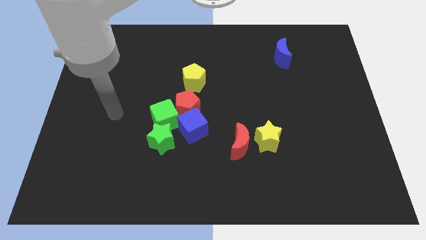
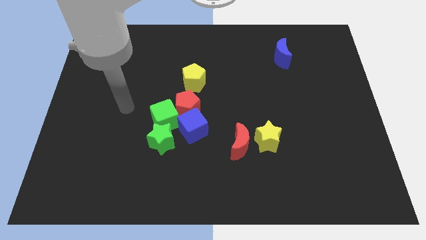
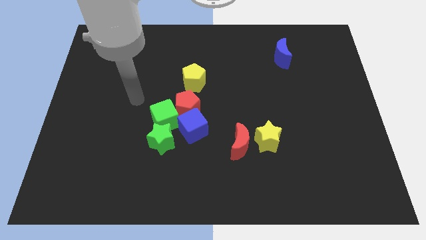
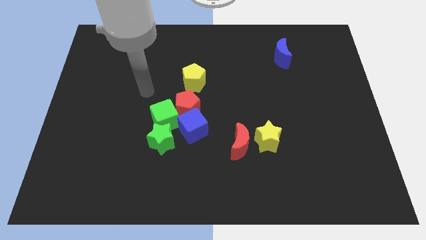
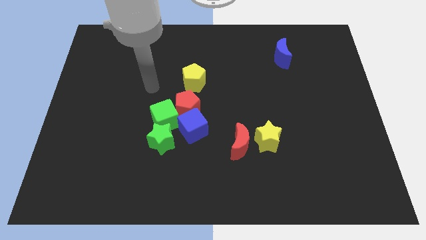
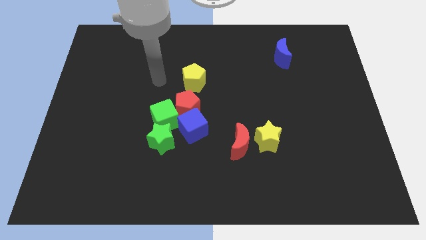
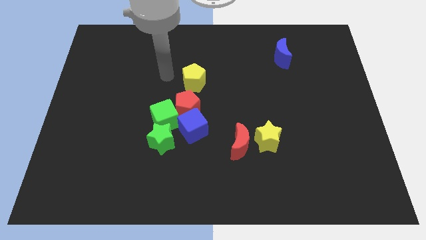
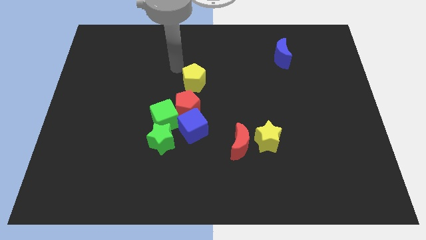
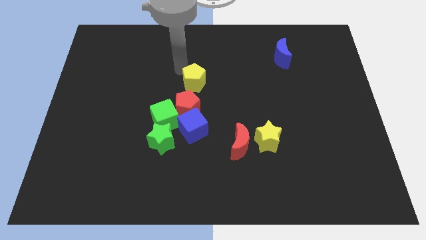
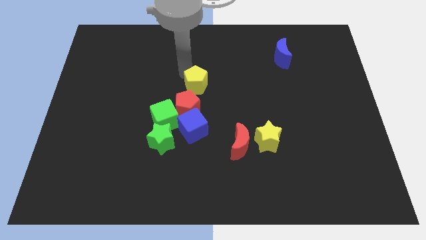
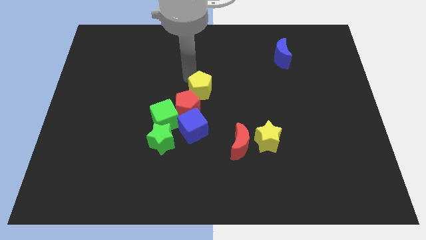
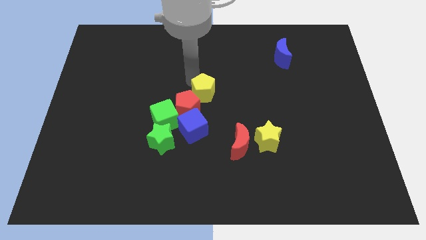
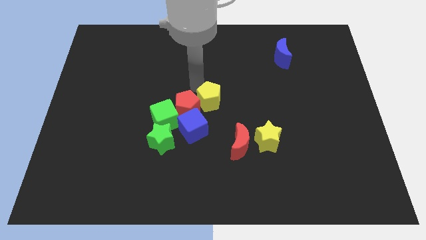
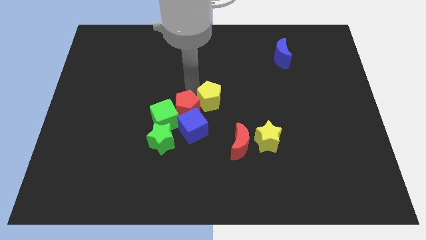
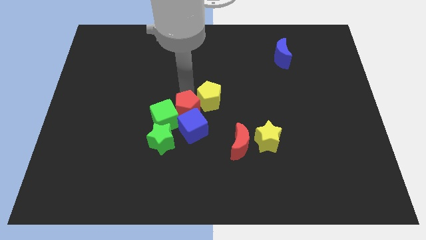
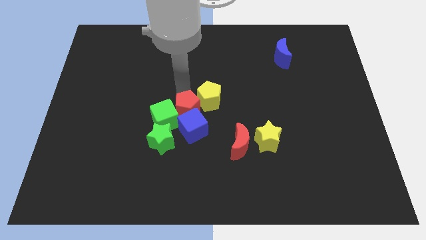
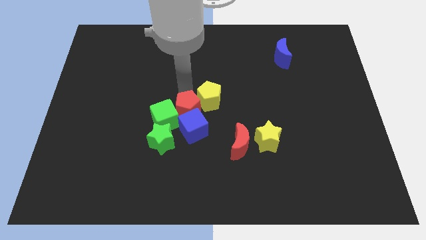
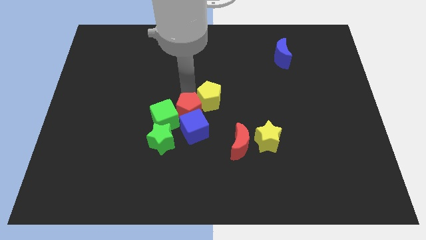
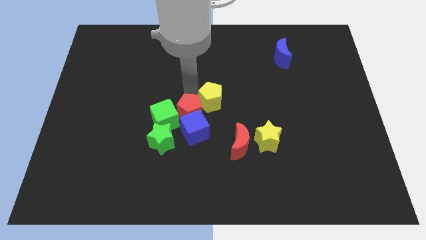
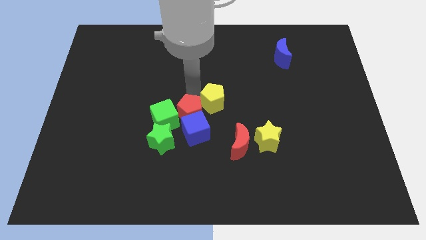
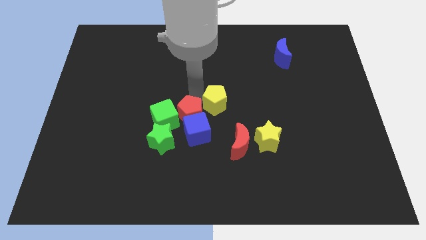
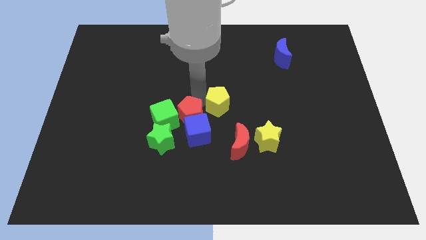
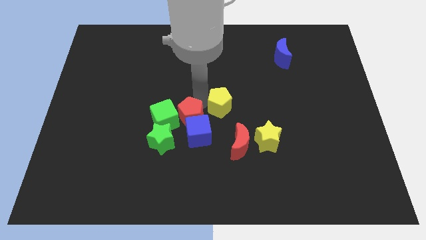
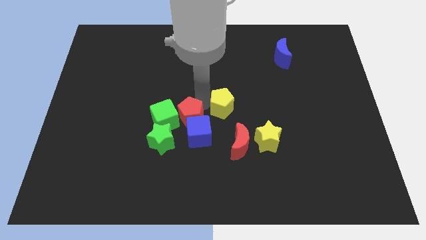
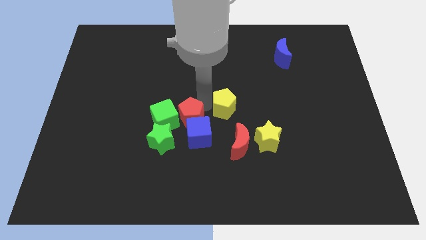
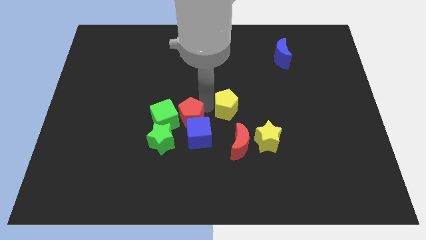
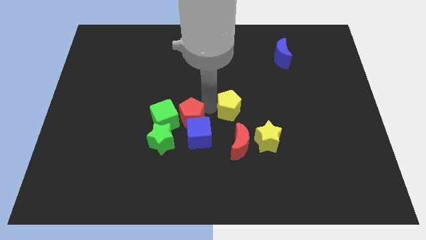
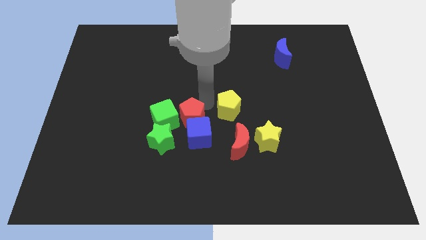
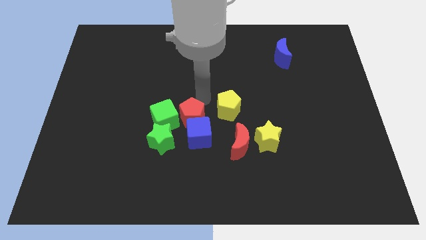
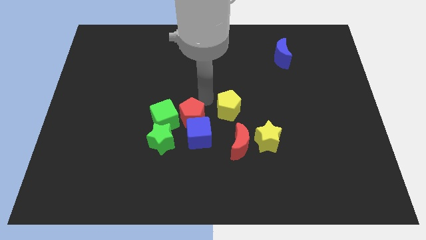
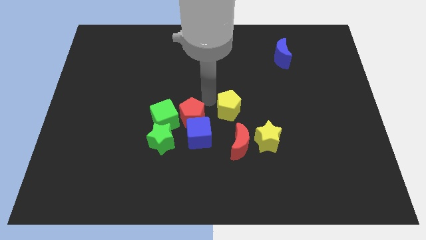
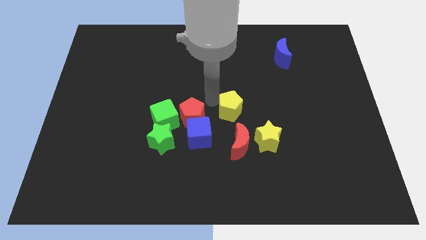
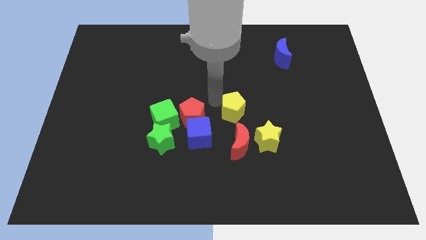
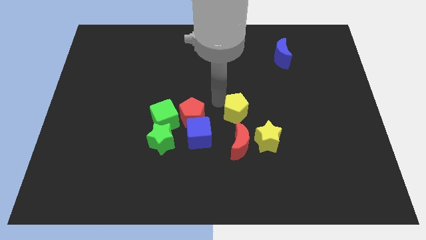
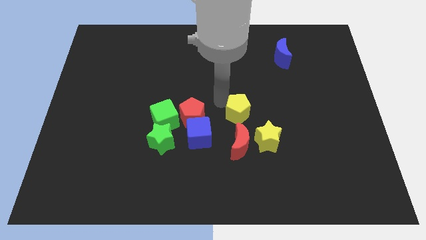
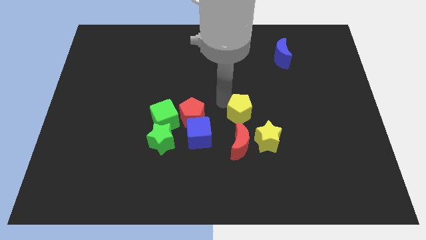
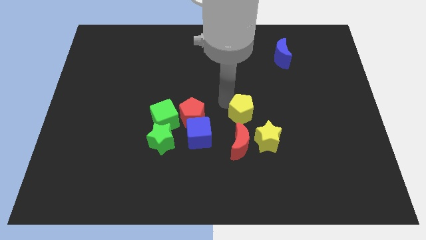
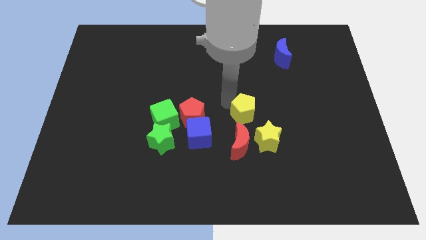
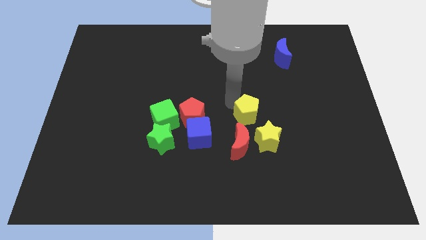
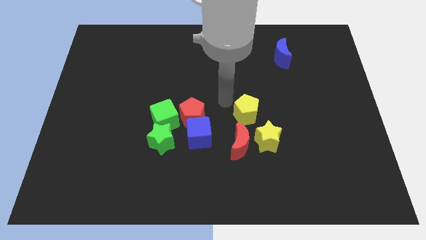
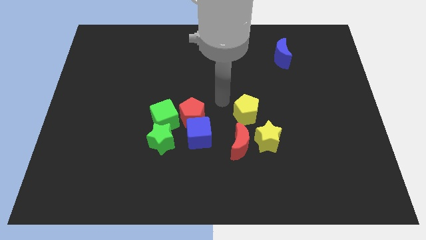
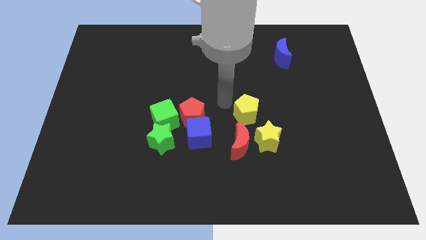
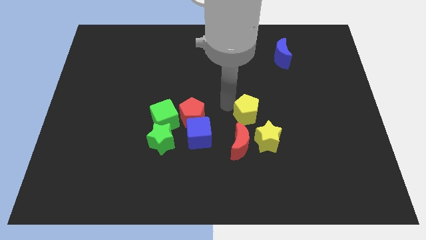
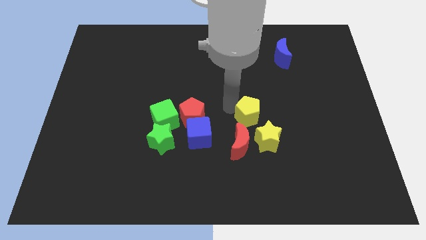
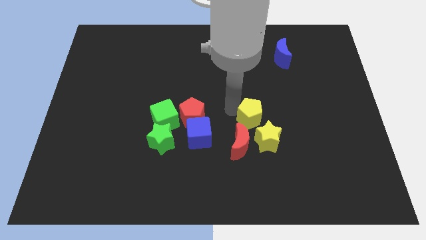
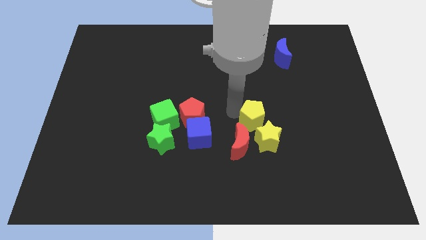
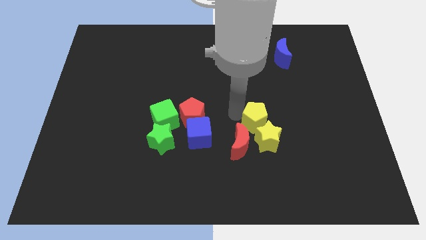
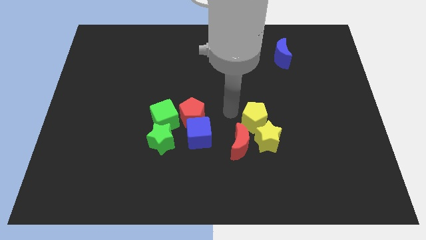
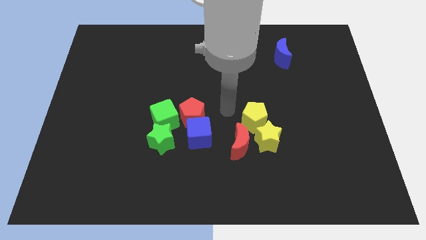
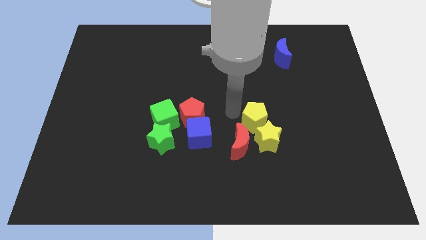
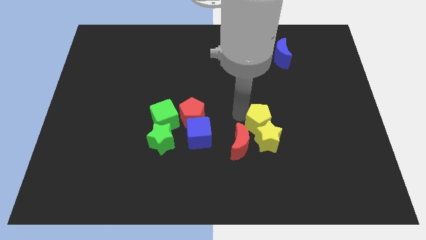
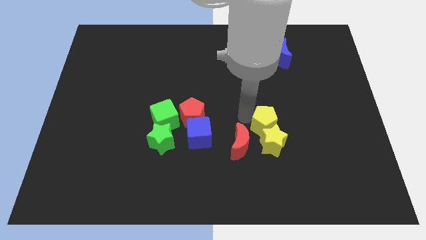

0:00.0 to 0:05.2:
move the yellow pentagon downwards and right diagonally

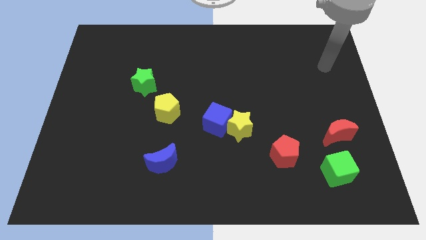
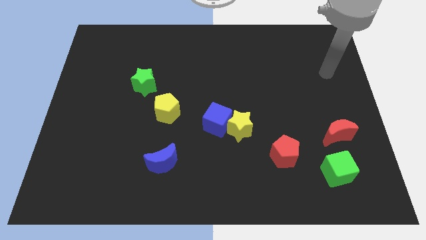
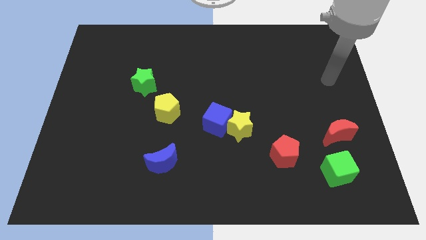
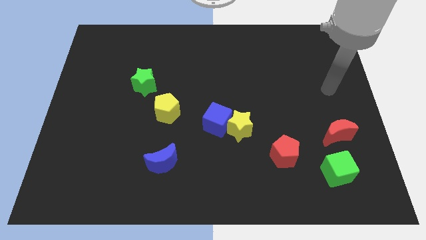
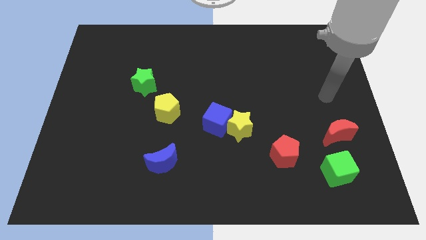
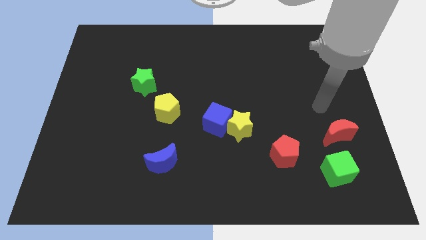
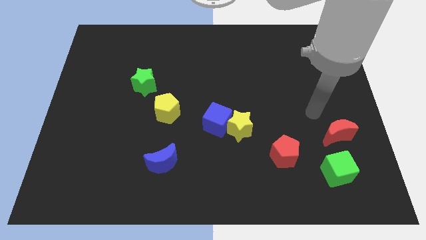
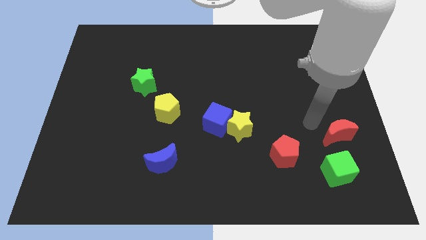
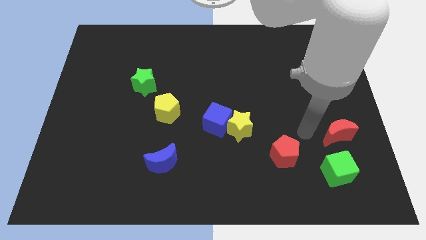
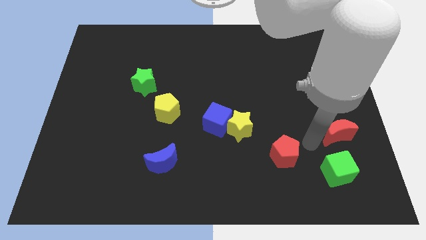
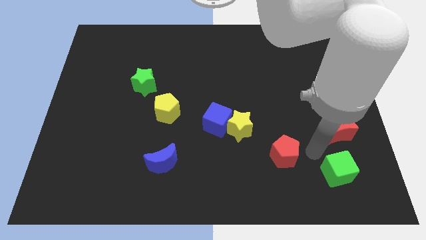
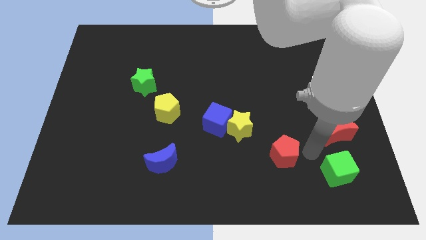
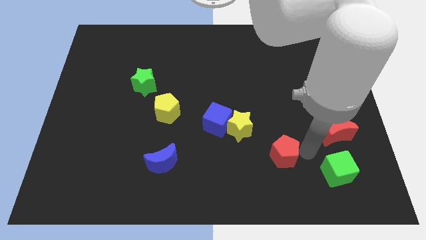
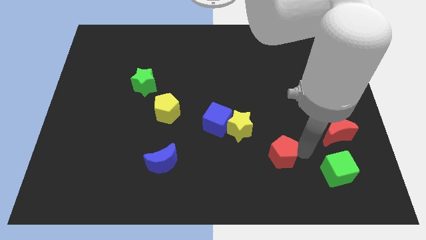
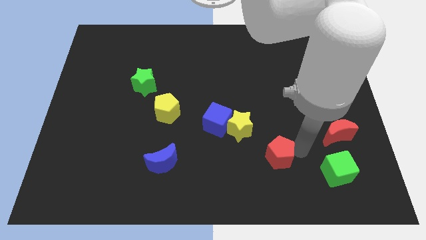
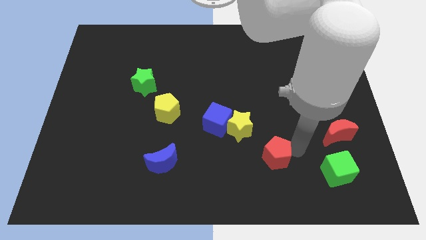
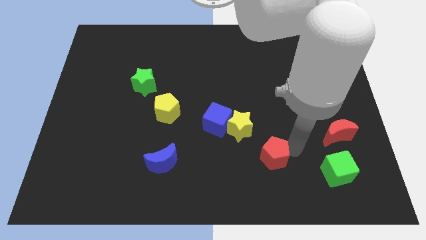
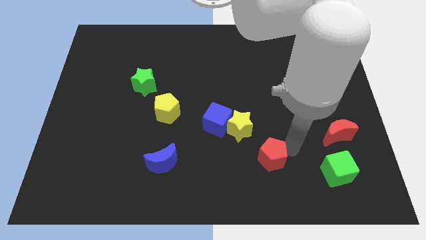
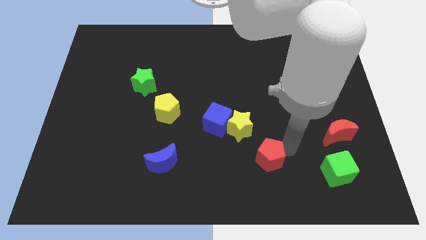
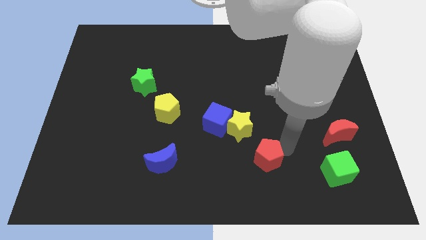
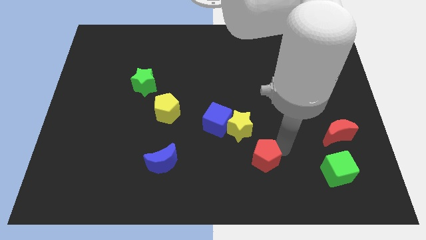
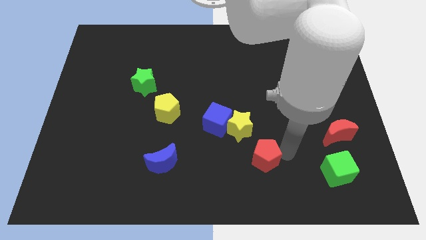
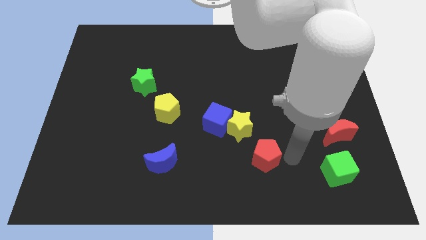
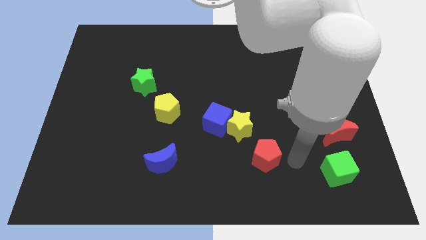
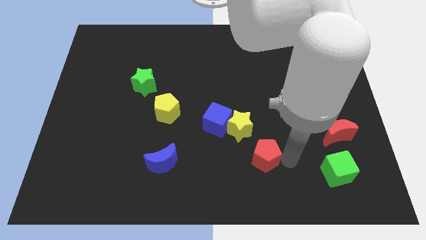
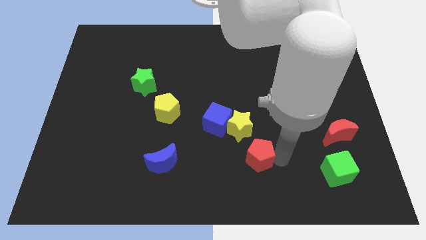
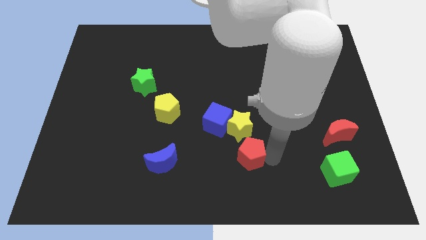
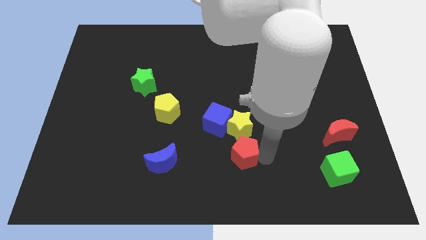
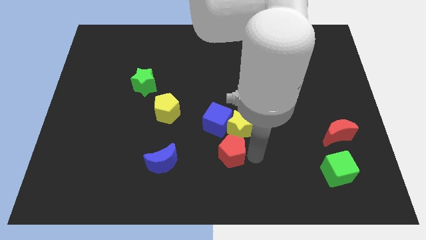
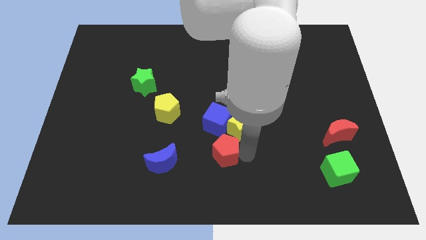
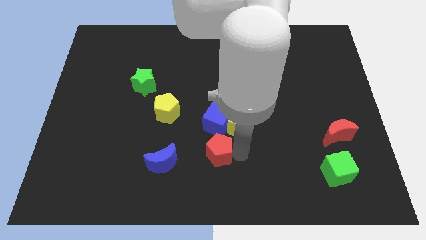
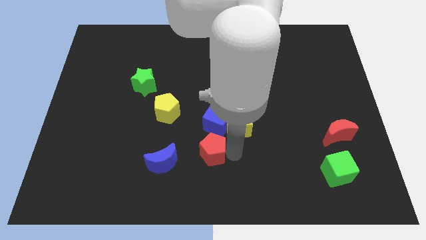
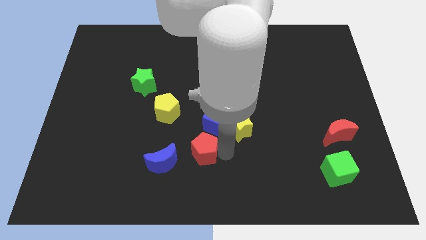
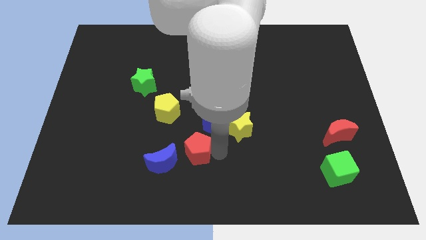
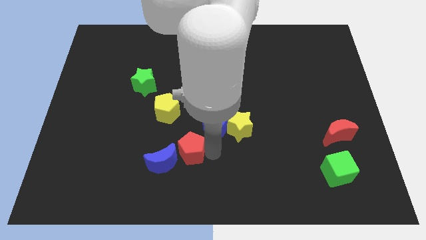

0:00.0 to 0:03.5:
move the red pentagon to the left
